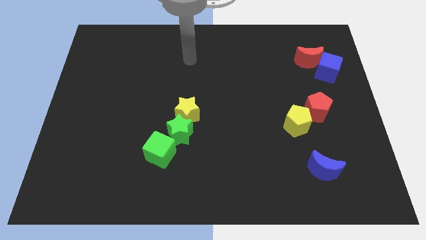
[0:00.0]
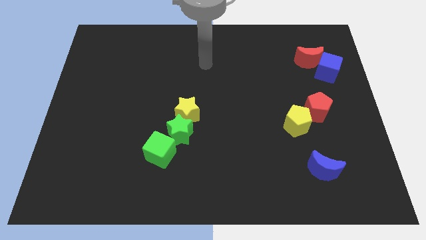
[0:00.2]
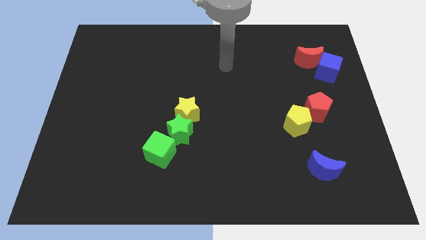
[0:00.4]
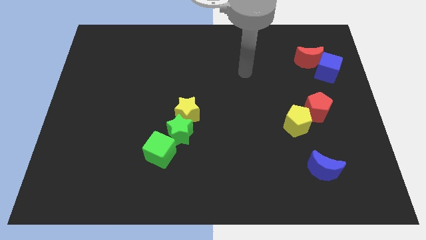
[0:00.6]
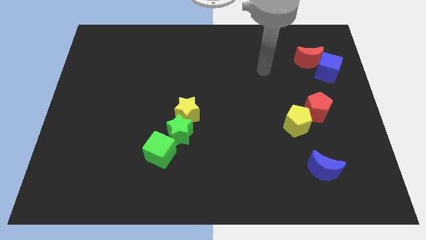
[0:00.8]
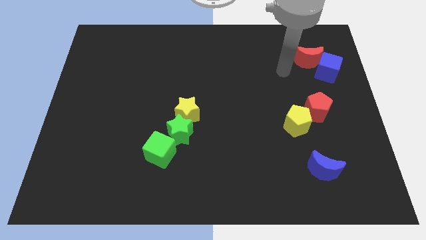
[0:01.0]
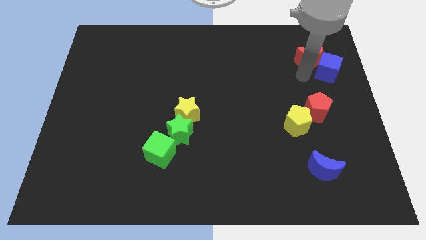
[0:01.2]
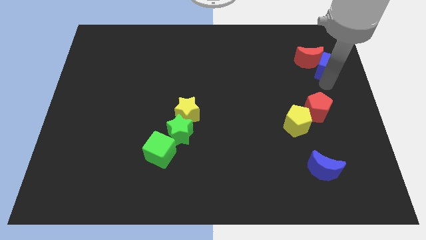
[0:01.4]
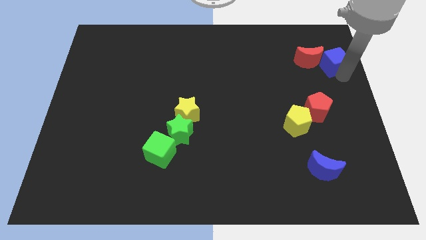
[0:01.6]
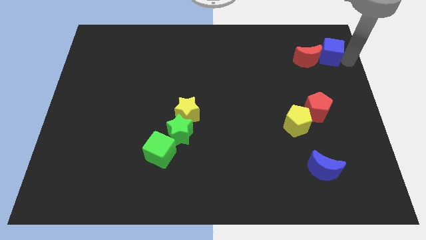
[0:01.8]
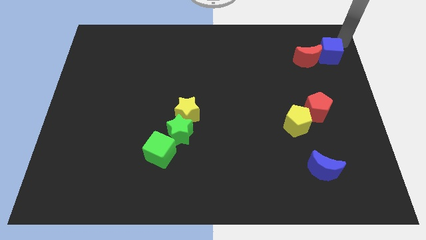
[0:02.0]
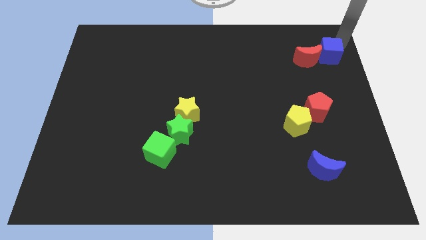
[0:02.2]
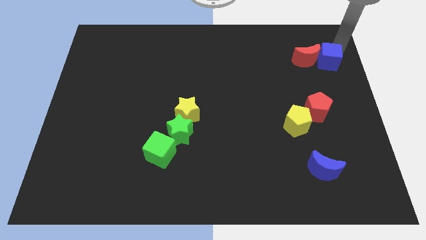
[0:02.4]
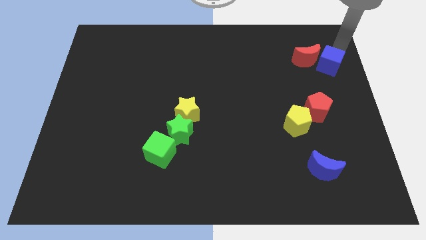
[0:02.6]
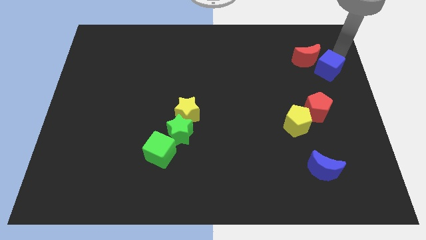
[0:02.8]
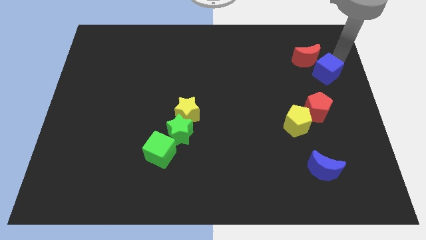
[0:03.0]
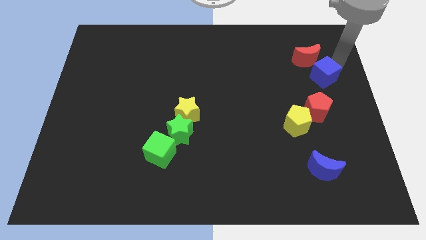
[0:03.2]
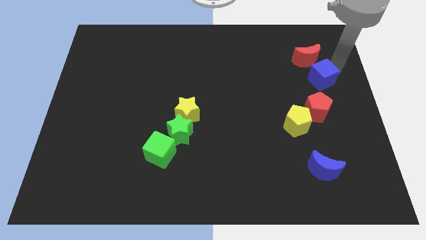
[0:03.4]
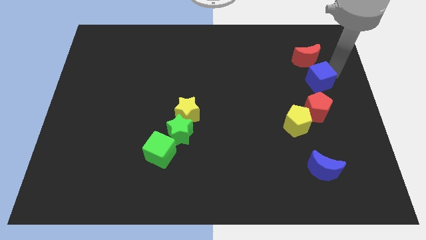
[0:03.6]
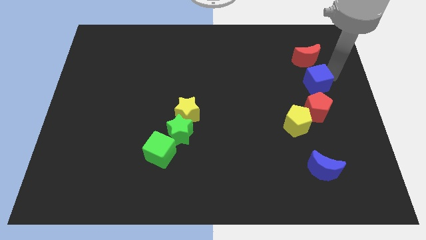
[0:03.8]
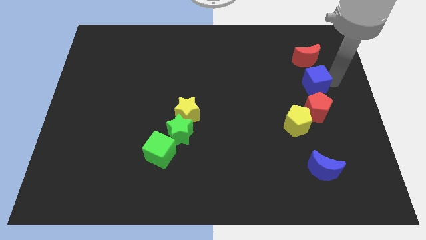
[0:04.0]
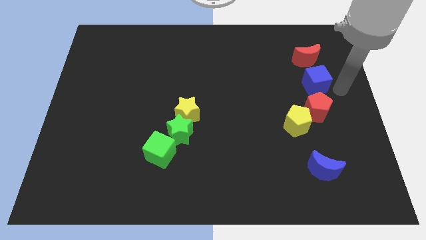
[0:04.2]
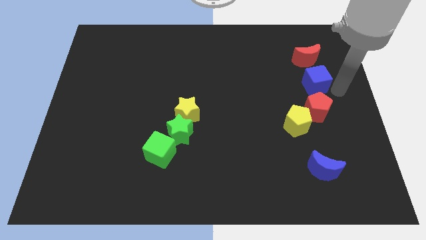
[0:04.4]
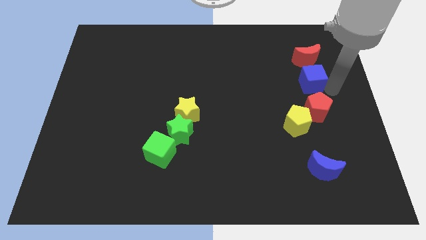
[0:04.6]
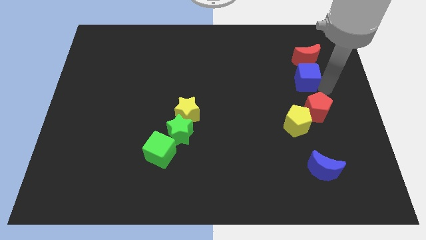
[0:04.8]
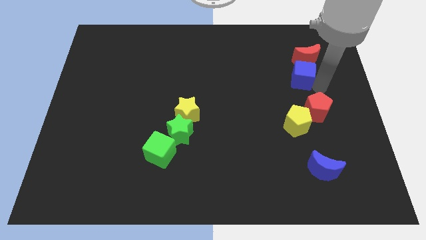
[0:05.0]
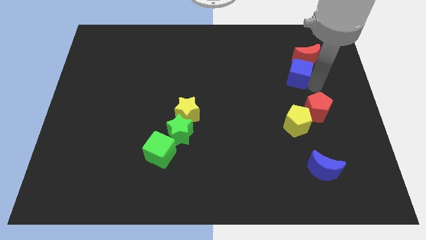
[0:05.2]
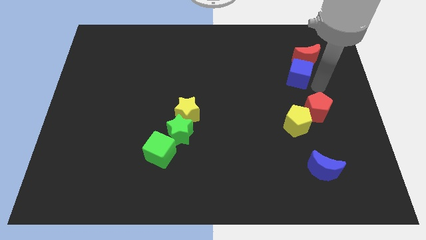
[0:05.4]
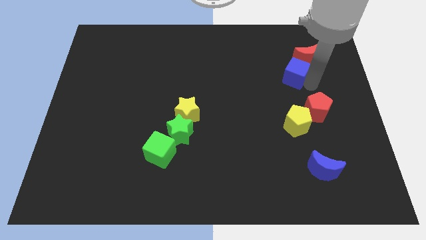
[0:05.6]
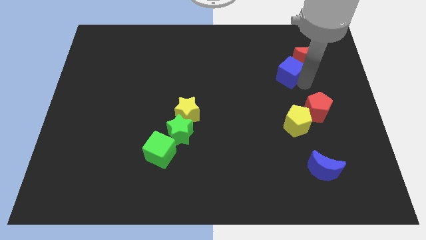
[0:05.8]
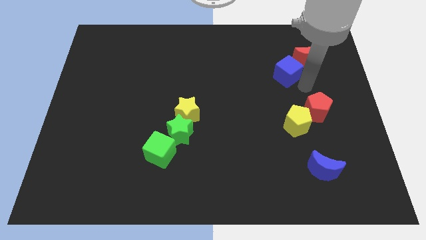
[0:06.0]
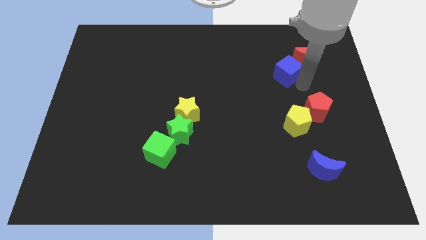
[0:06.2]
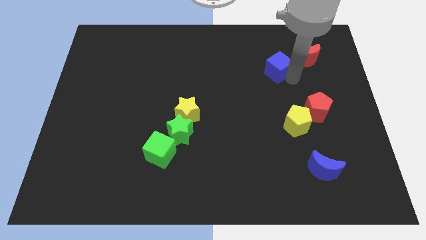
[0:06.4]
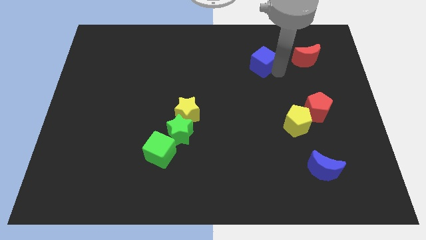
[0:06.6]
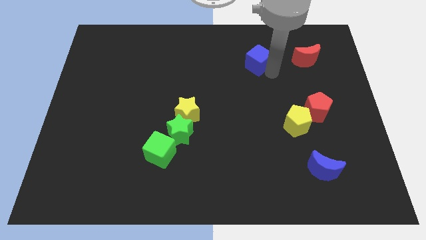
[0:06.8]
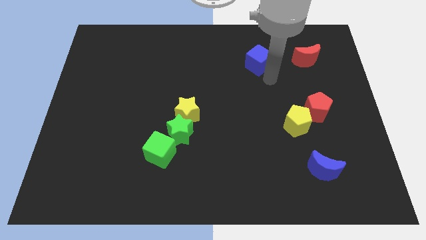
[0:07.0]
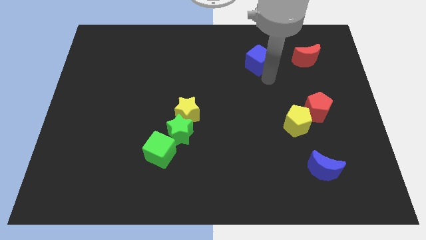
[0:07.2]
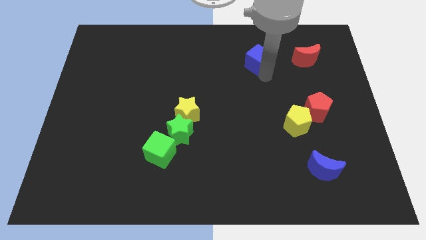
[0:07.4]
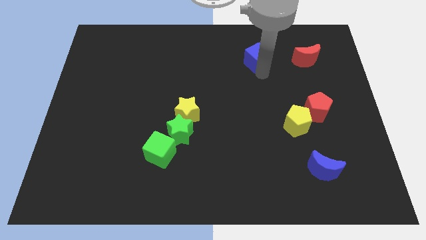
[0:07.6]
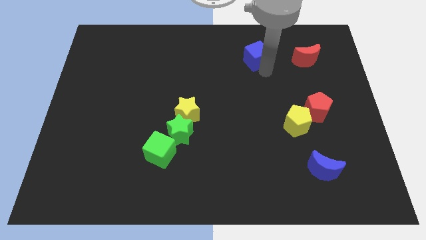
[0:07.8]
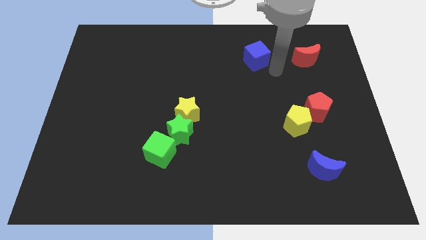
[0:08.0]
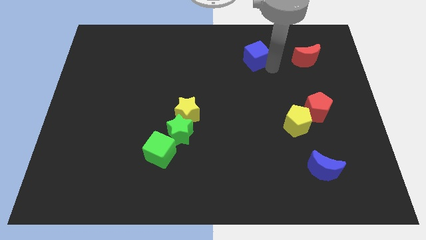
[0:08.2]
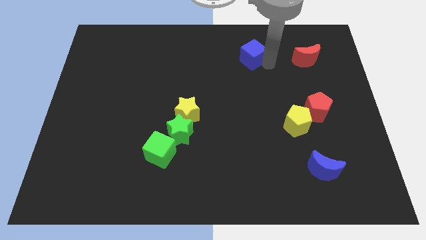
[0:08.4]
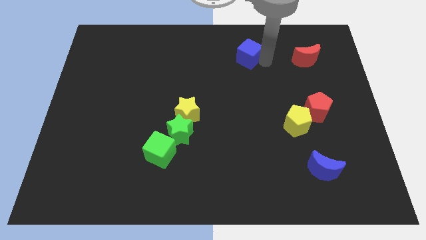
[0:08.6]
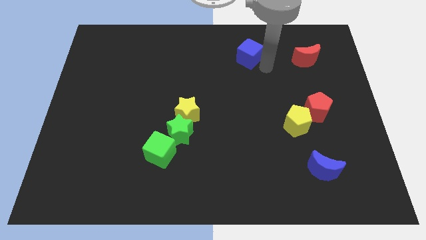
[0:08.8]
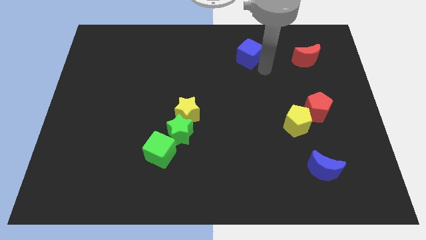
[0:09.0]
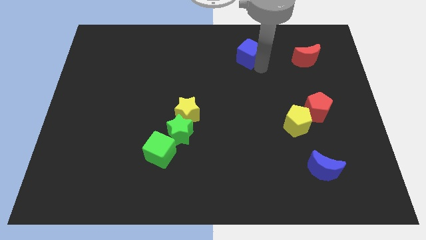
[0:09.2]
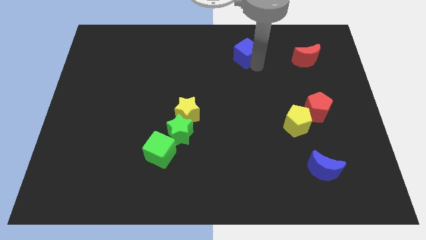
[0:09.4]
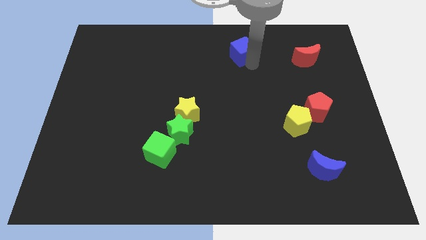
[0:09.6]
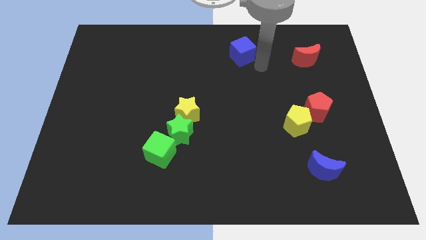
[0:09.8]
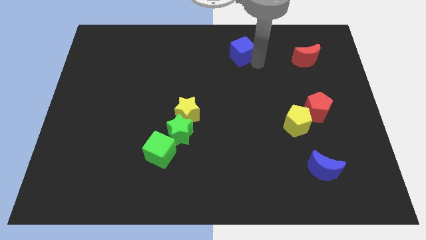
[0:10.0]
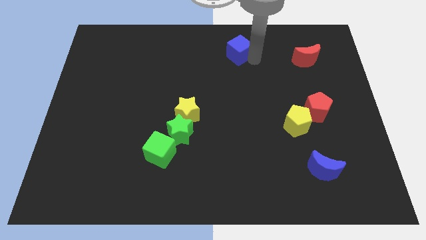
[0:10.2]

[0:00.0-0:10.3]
put the blue cube to the towards your base

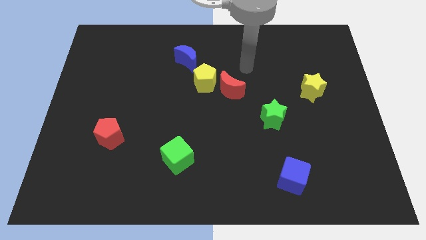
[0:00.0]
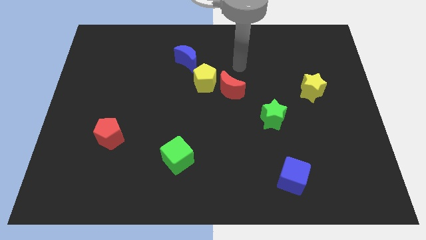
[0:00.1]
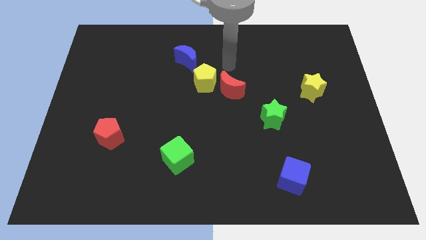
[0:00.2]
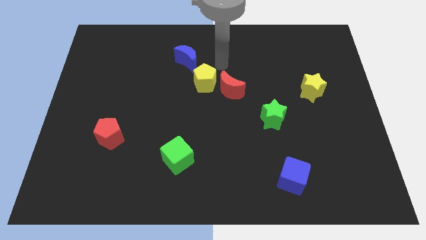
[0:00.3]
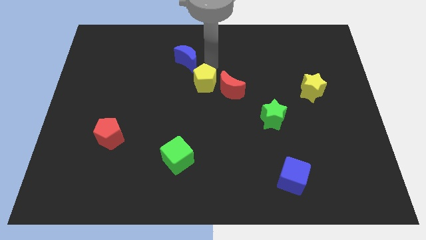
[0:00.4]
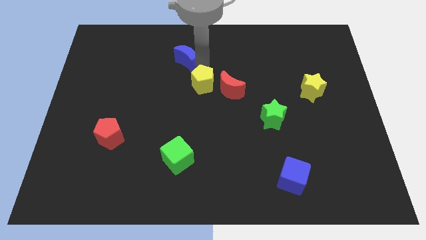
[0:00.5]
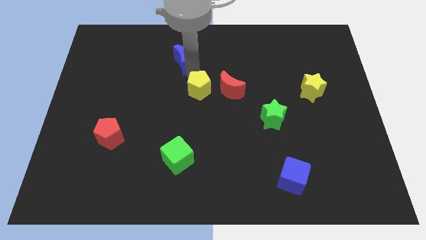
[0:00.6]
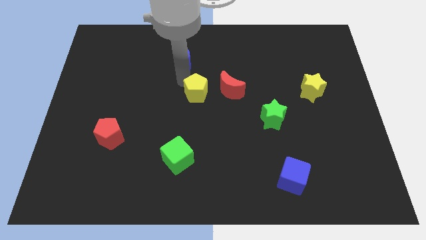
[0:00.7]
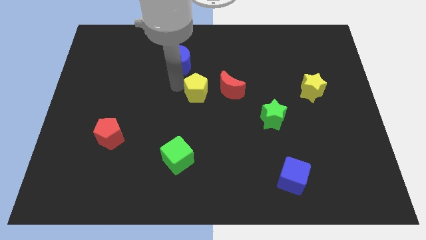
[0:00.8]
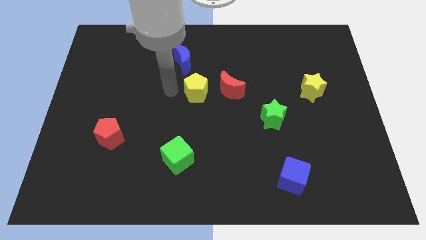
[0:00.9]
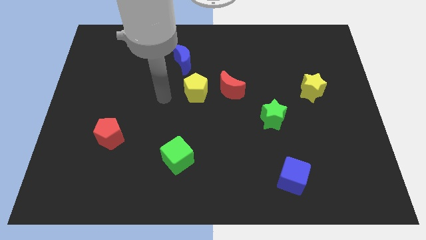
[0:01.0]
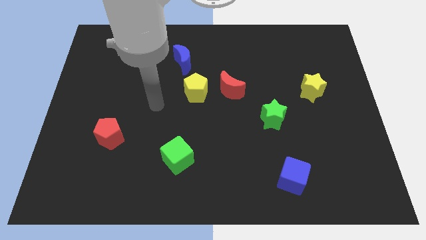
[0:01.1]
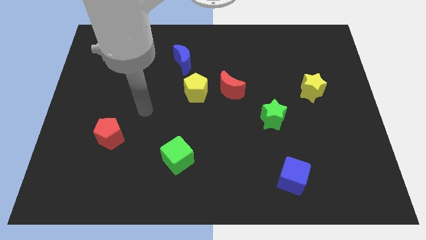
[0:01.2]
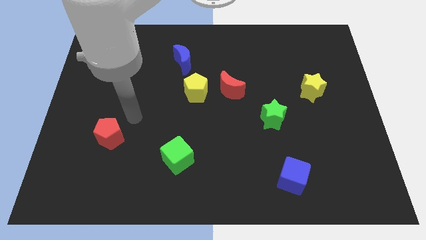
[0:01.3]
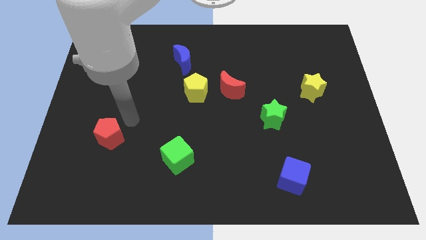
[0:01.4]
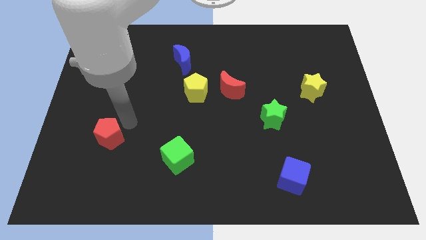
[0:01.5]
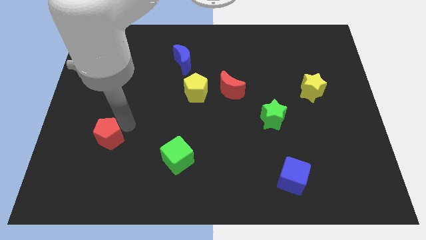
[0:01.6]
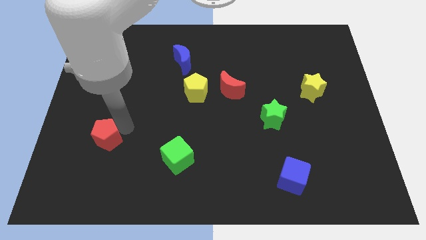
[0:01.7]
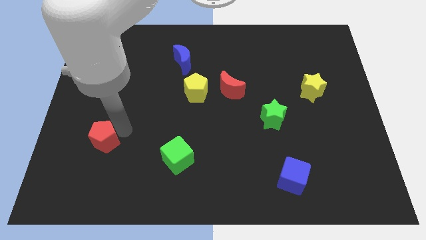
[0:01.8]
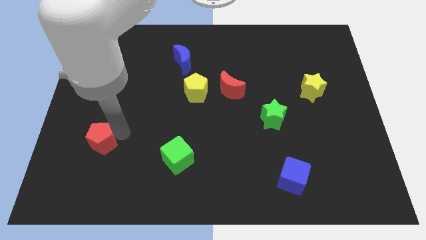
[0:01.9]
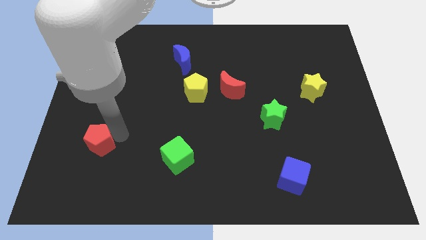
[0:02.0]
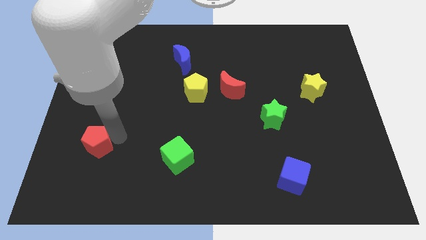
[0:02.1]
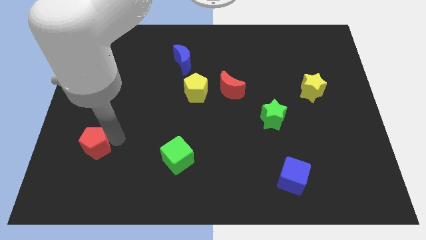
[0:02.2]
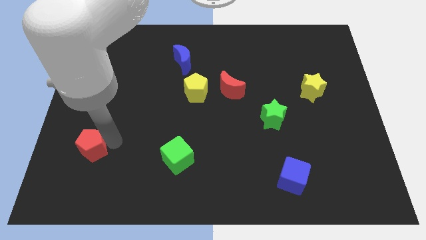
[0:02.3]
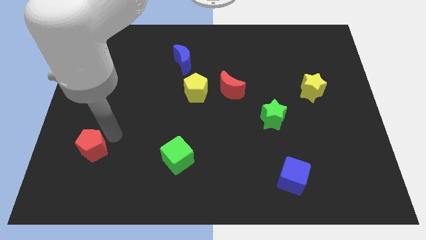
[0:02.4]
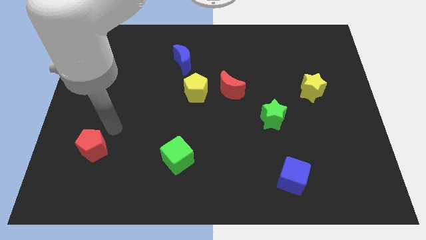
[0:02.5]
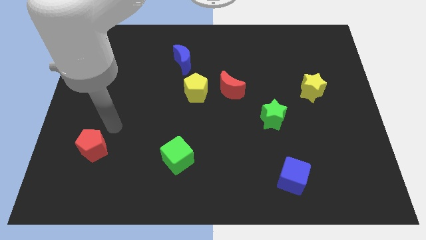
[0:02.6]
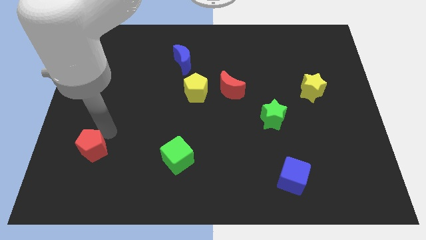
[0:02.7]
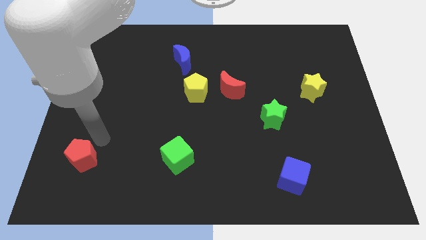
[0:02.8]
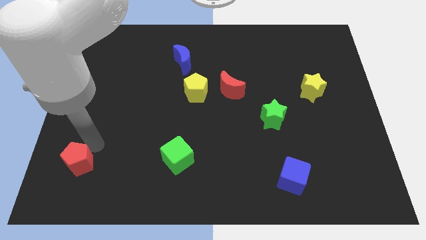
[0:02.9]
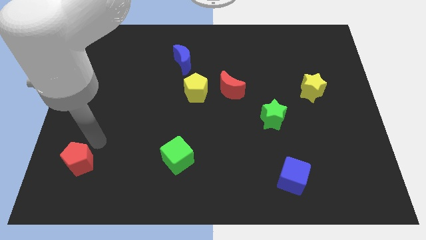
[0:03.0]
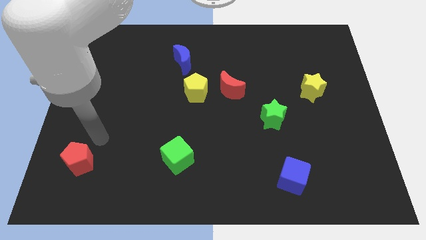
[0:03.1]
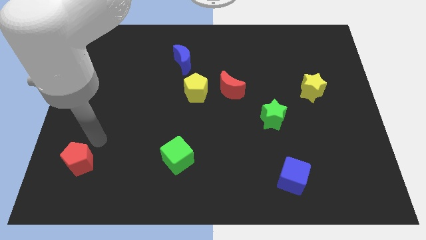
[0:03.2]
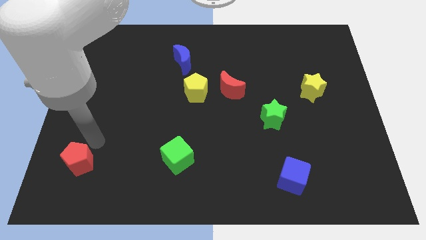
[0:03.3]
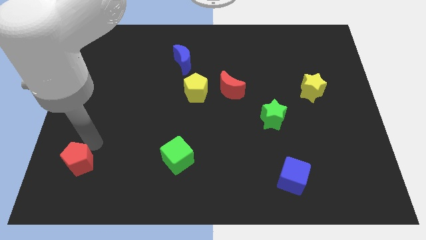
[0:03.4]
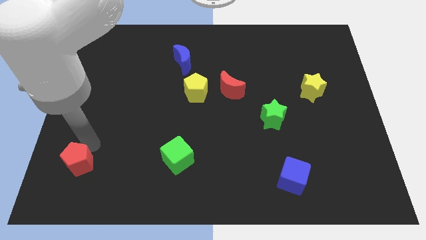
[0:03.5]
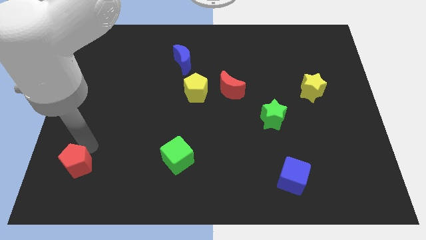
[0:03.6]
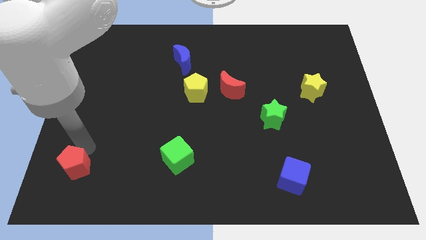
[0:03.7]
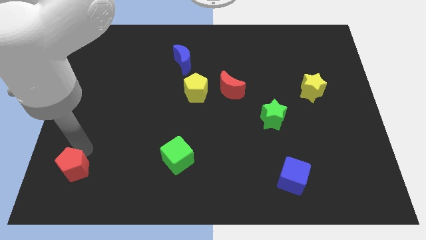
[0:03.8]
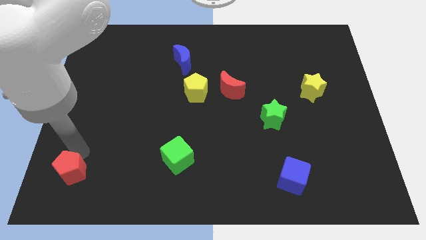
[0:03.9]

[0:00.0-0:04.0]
slide the red pentagon to the bottom left
